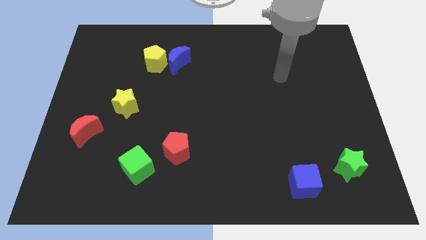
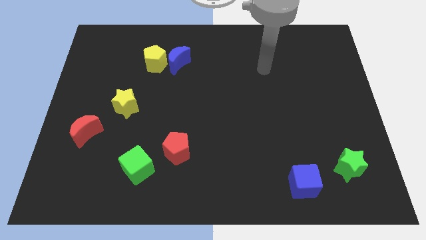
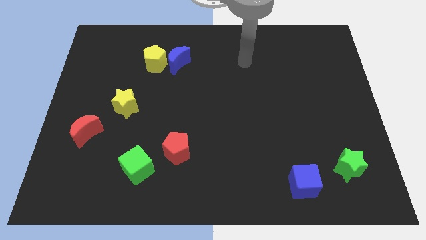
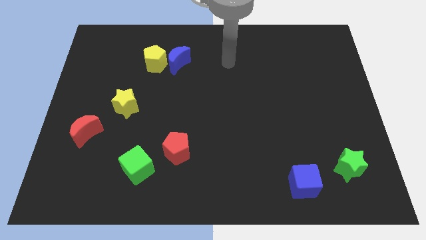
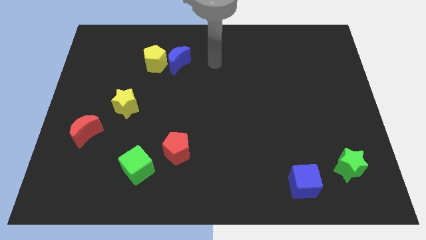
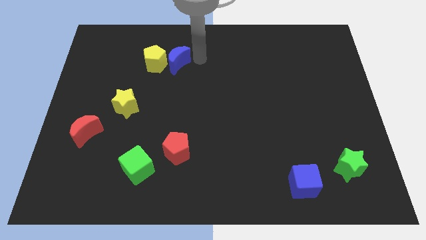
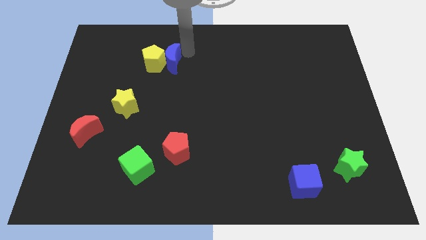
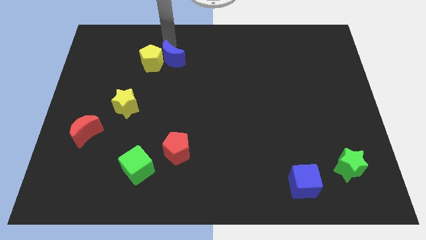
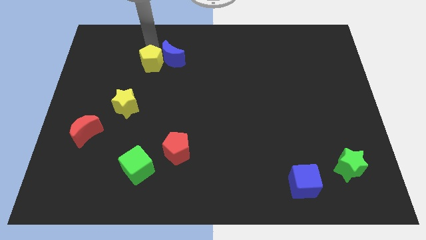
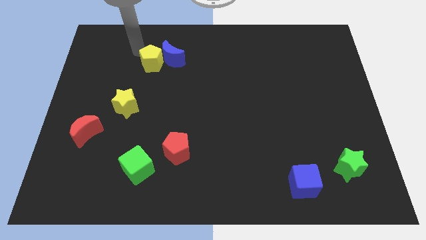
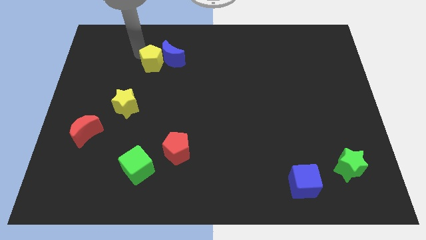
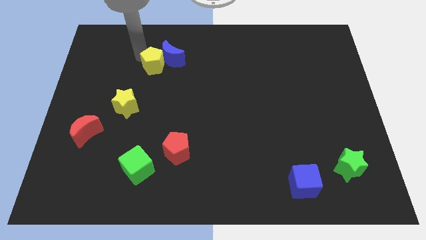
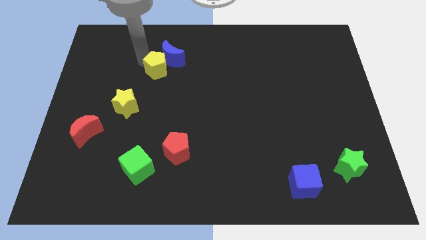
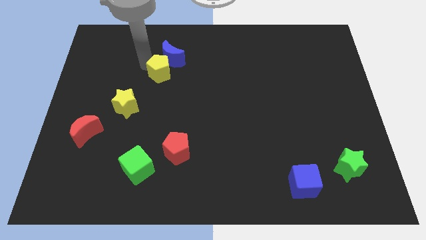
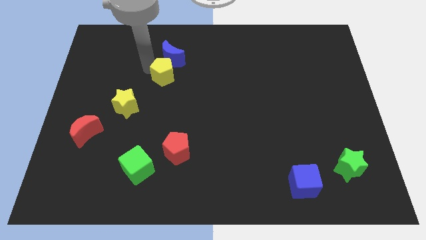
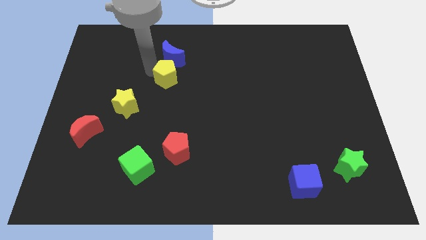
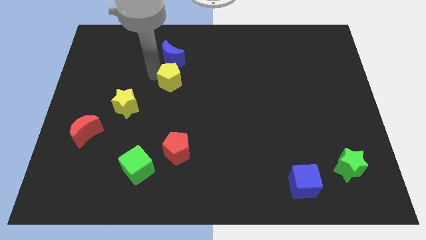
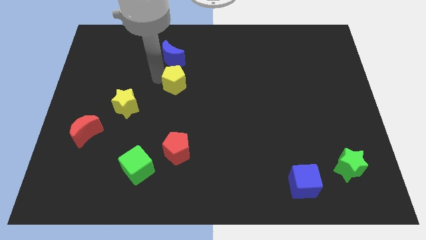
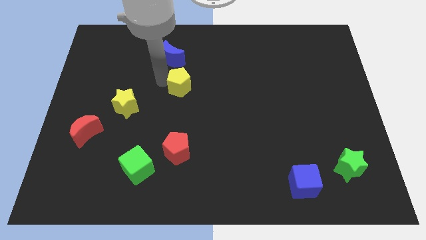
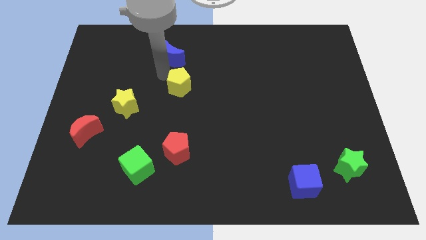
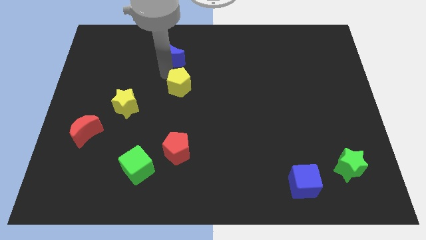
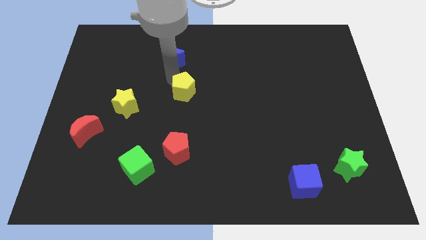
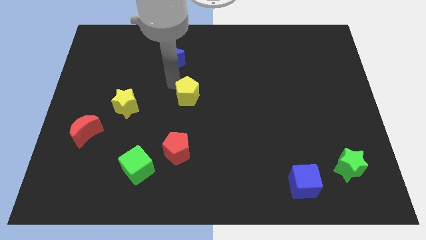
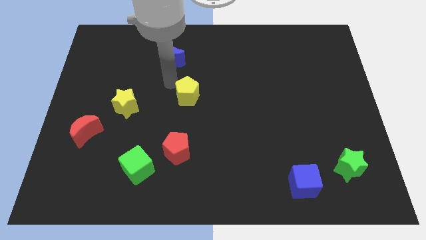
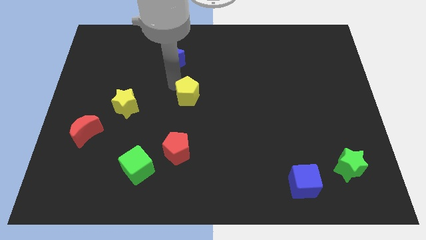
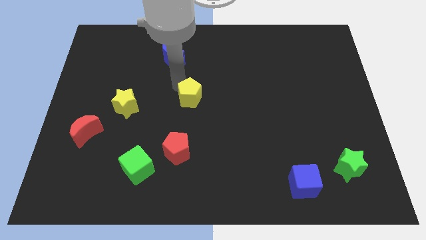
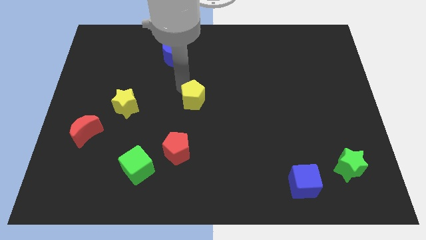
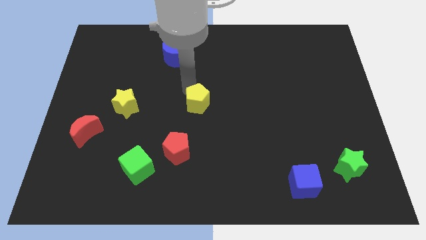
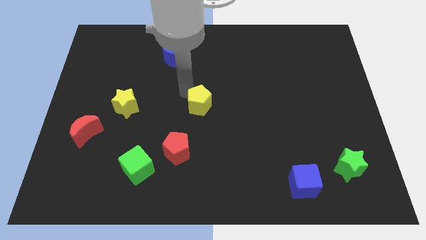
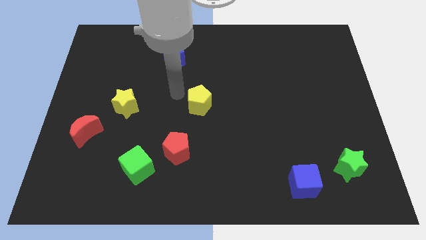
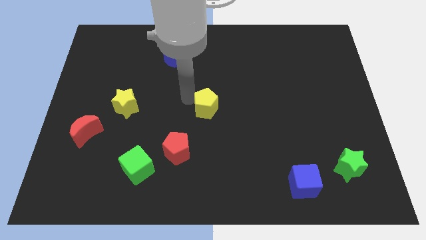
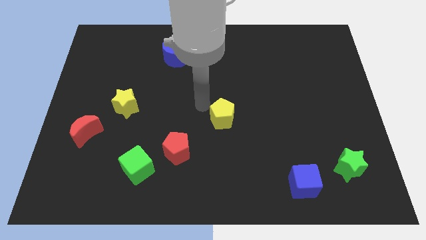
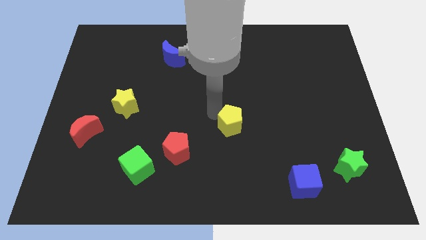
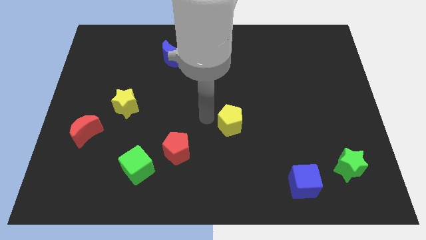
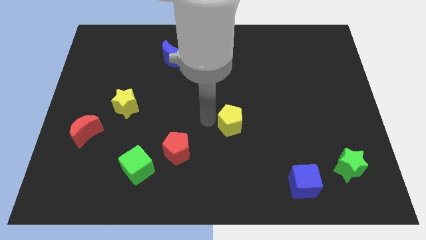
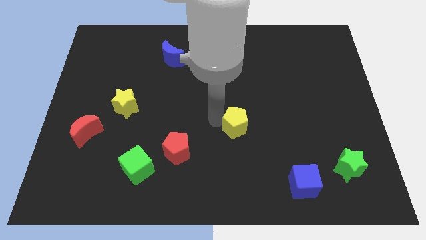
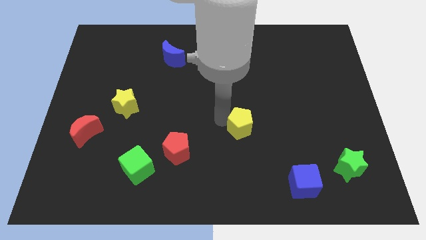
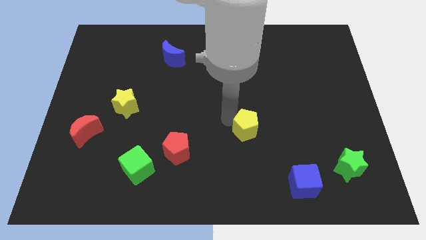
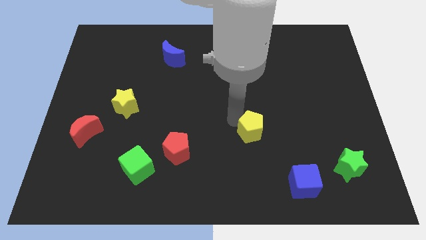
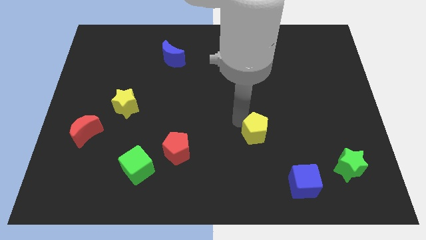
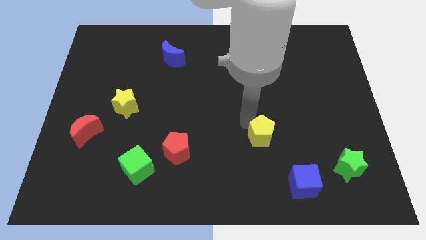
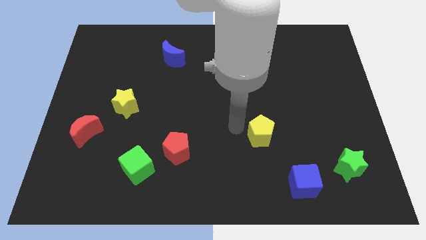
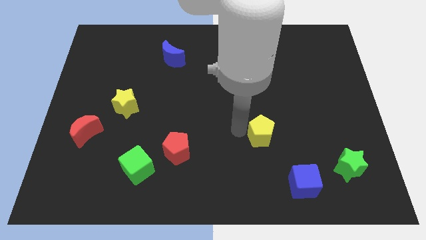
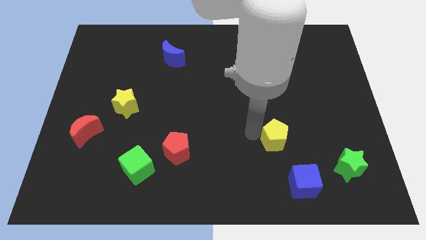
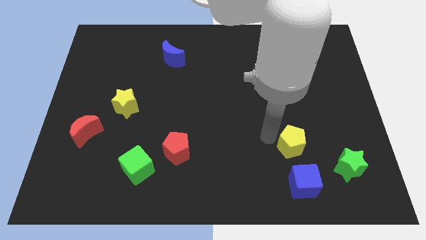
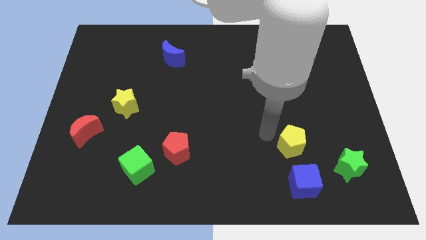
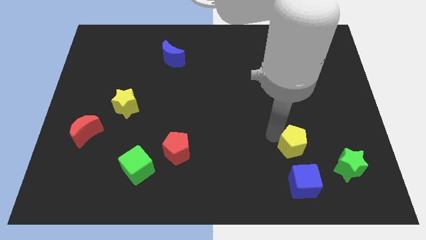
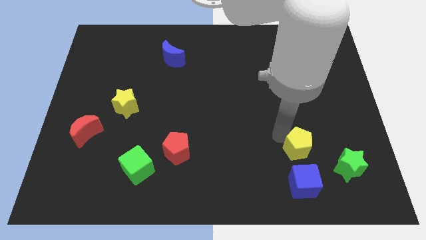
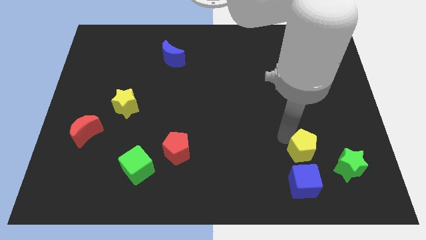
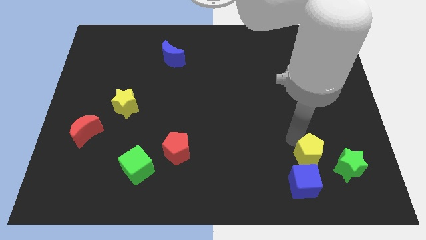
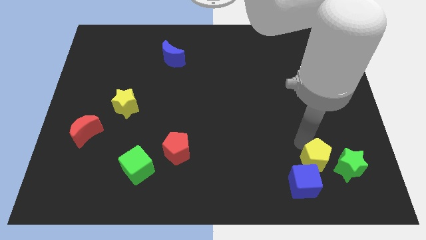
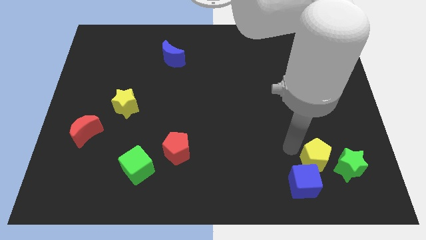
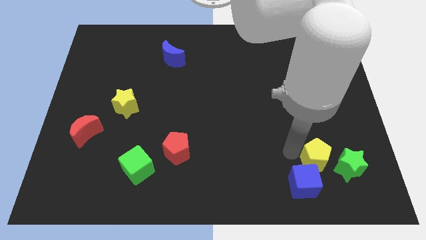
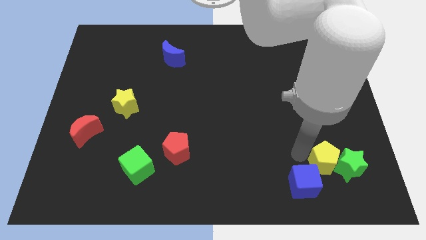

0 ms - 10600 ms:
slide the yellow pentagon close to the green star

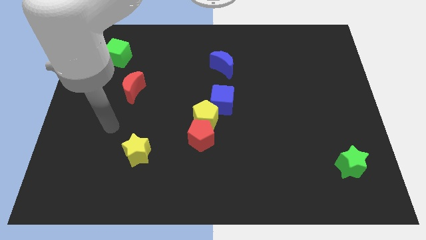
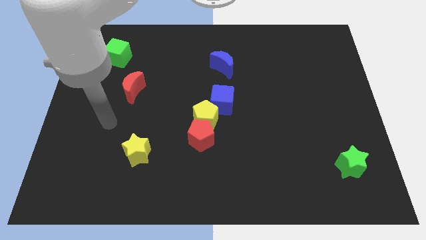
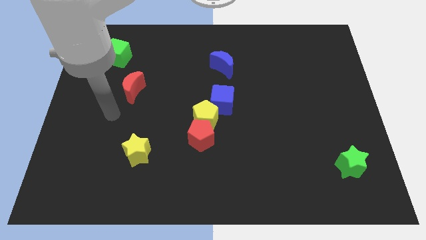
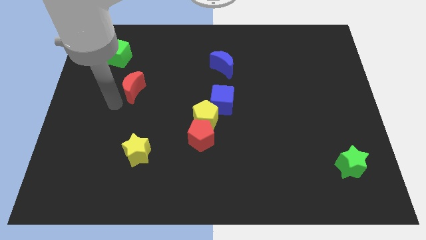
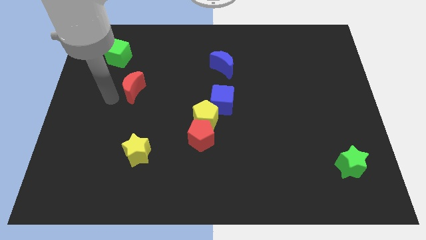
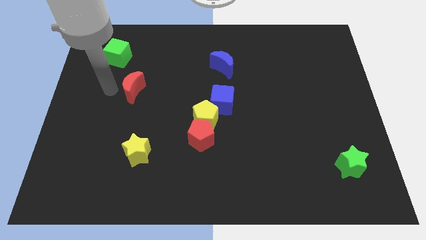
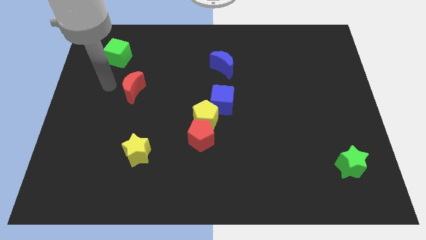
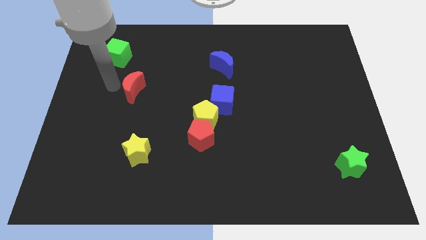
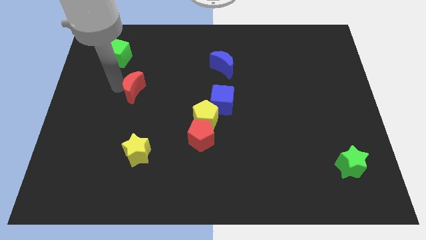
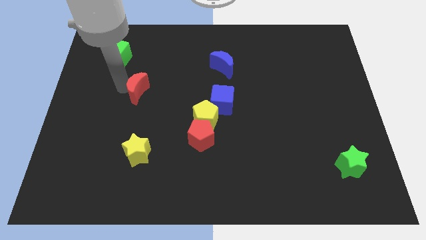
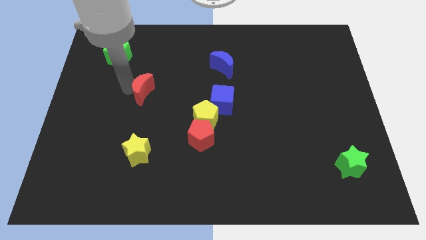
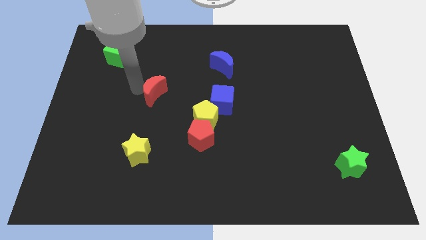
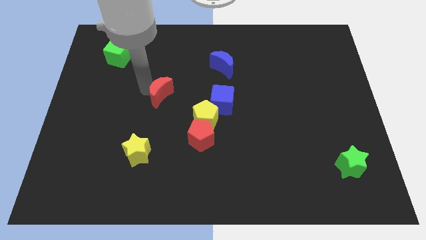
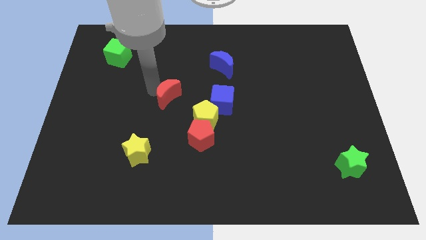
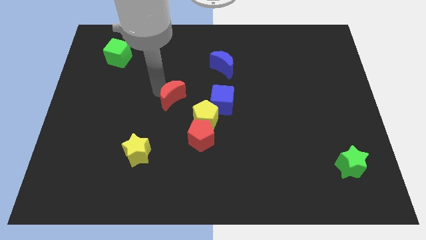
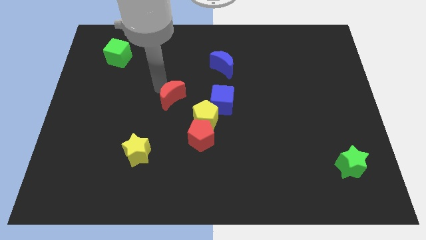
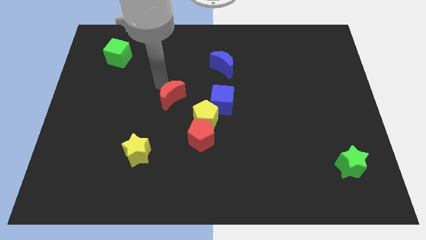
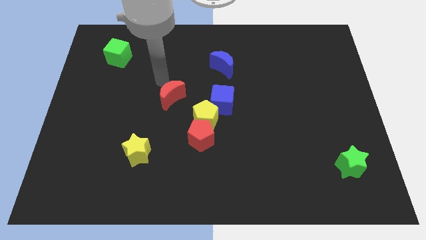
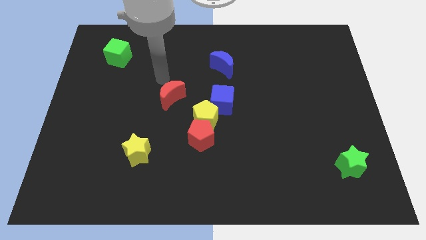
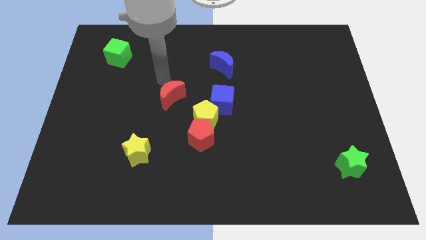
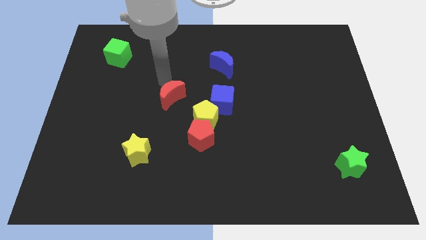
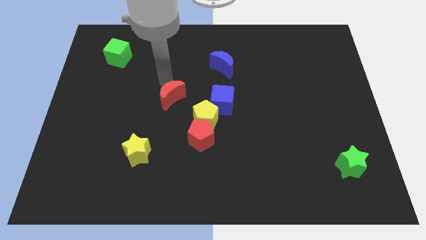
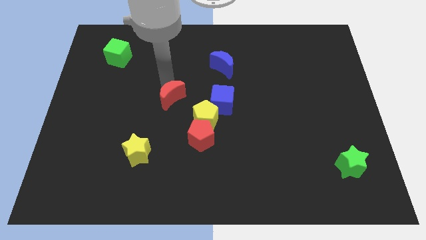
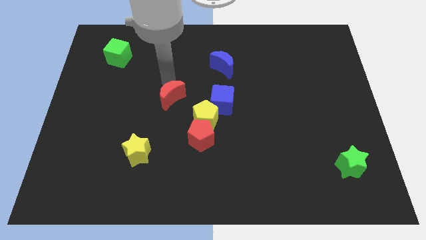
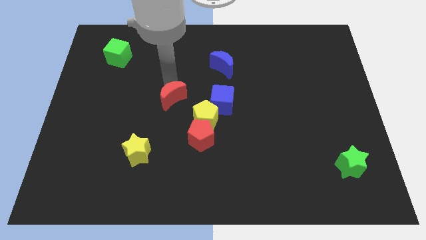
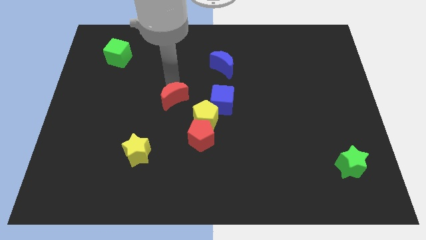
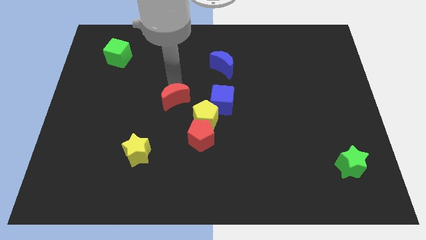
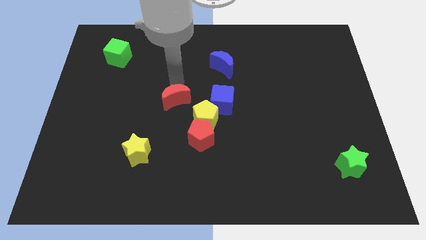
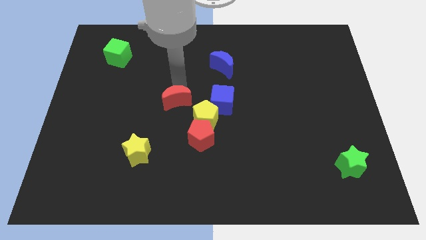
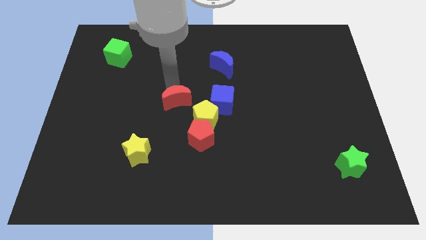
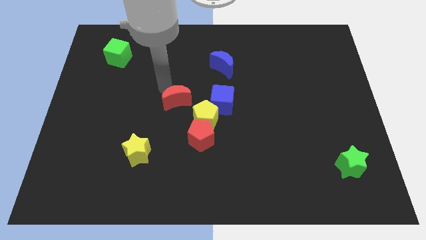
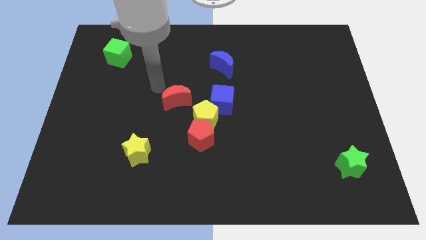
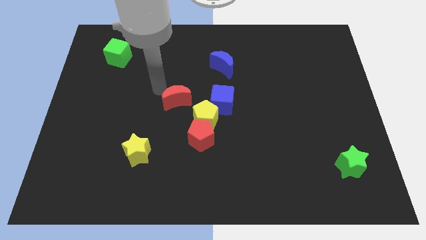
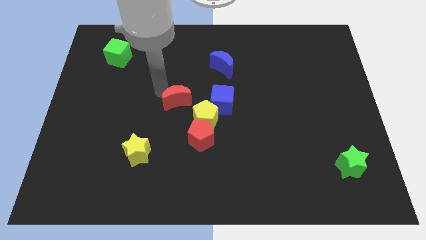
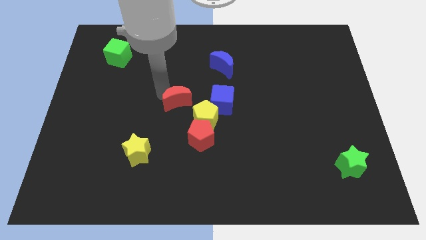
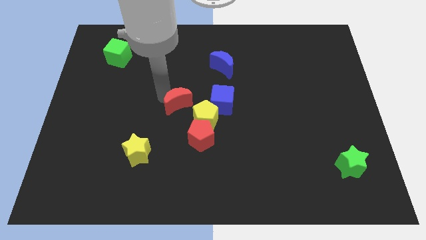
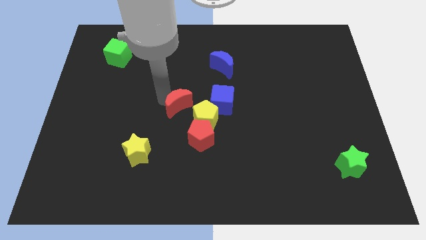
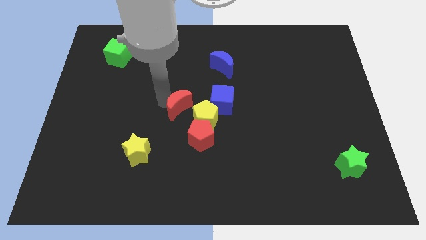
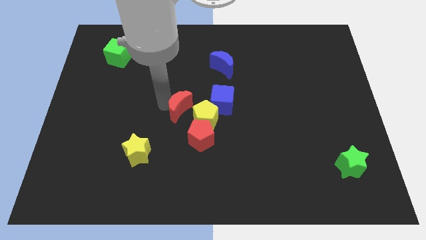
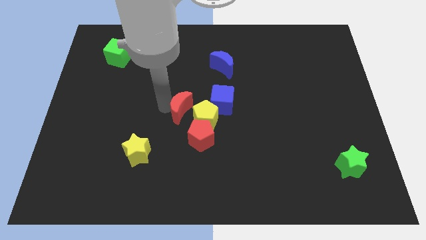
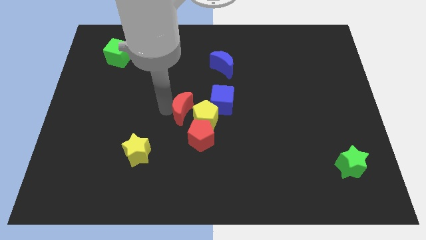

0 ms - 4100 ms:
push the red moon next to the yellow pentagon
